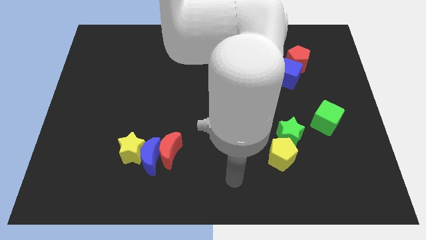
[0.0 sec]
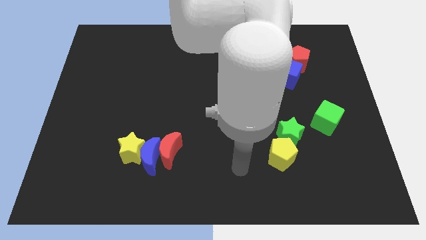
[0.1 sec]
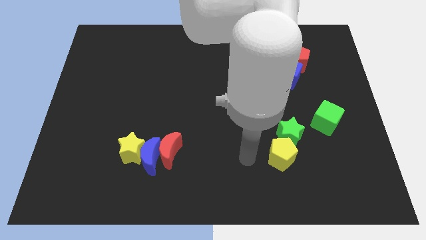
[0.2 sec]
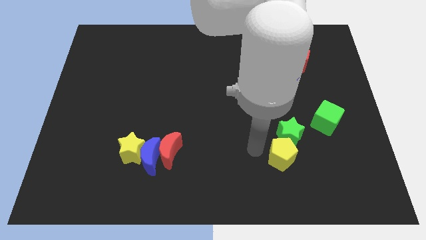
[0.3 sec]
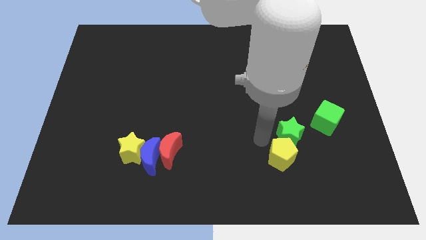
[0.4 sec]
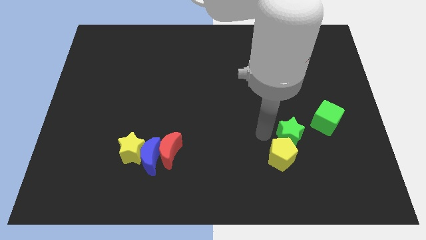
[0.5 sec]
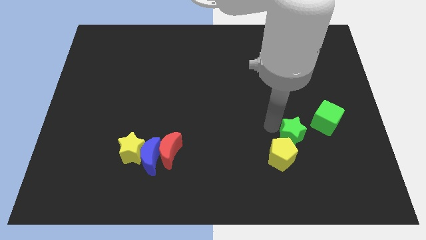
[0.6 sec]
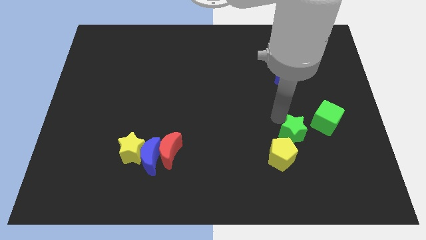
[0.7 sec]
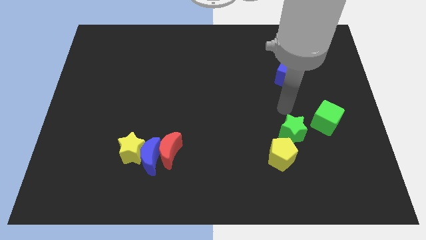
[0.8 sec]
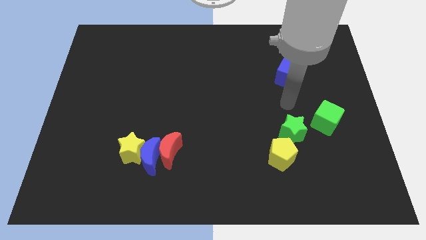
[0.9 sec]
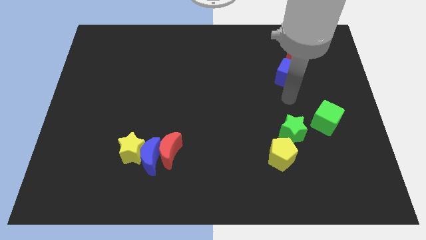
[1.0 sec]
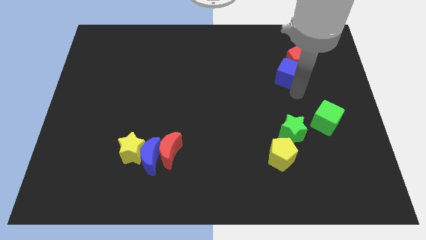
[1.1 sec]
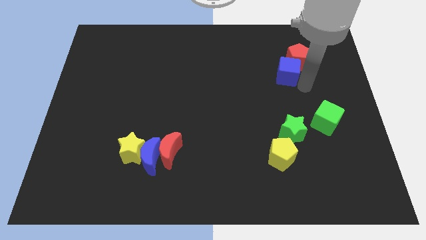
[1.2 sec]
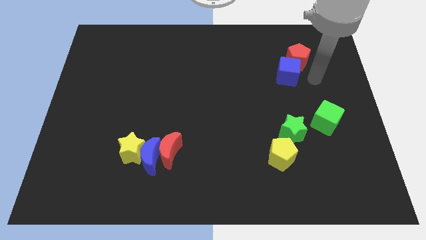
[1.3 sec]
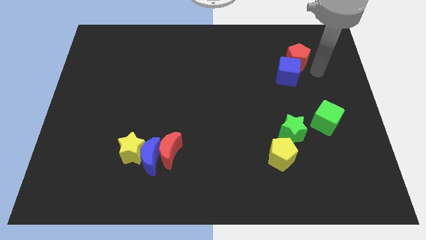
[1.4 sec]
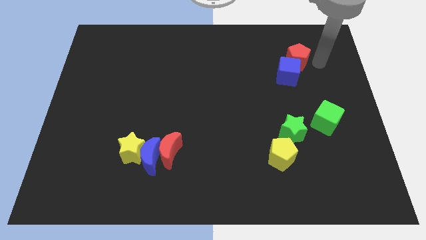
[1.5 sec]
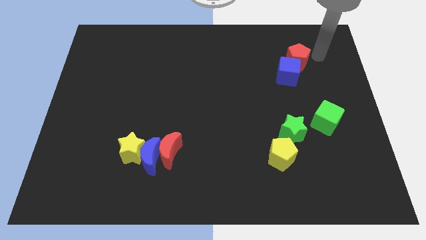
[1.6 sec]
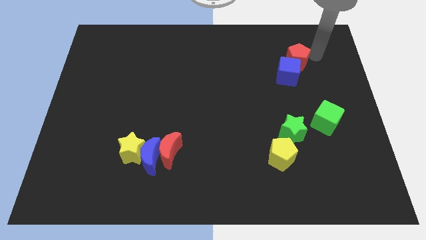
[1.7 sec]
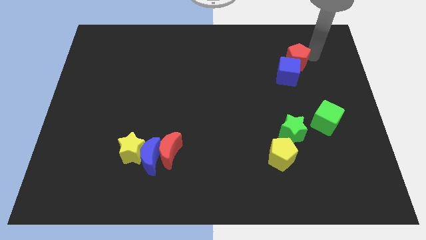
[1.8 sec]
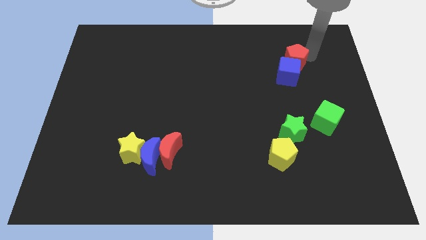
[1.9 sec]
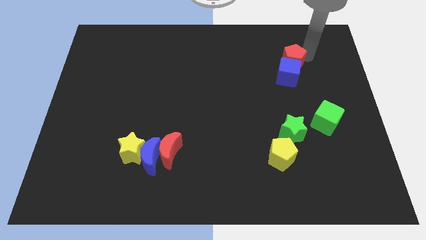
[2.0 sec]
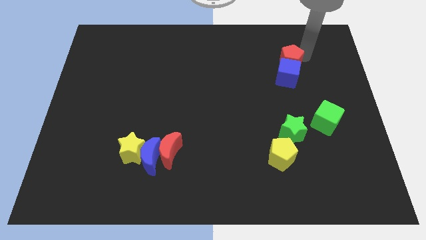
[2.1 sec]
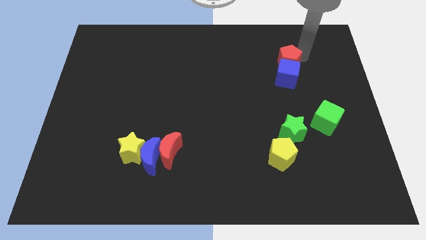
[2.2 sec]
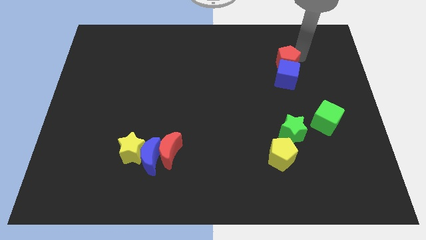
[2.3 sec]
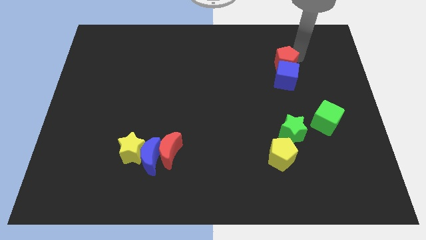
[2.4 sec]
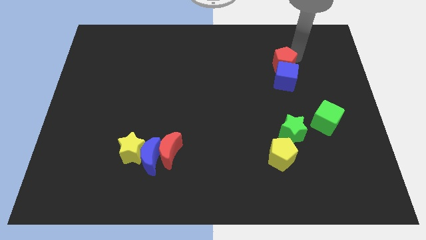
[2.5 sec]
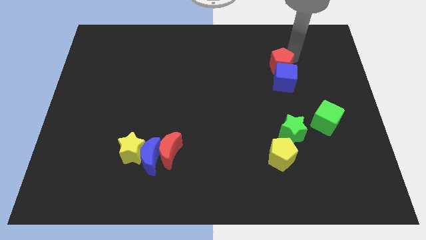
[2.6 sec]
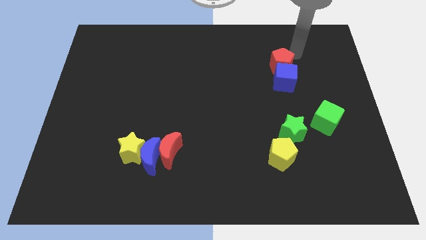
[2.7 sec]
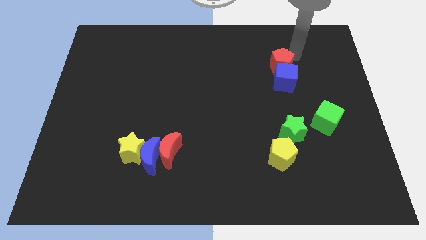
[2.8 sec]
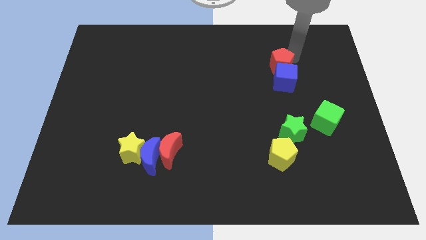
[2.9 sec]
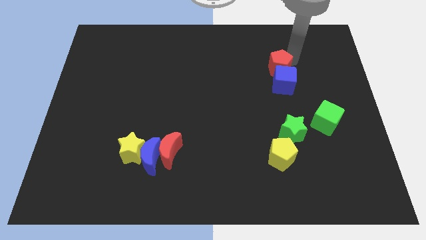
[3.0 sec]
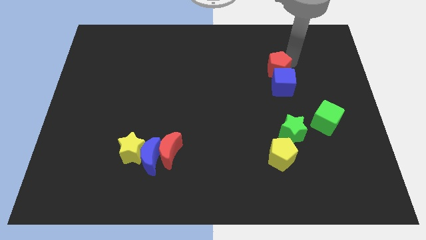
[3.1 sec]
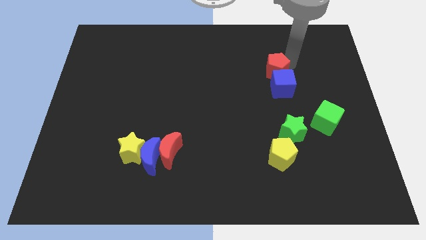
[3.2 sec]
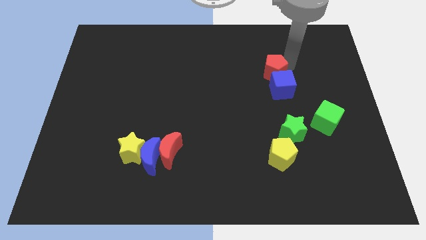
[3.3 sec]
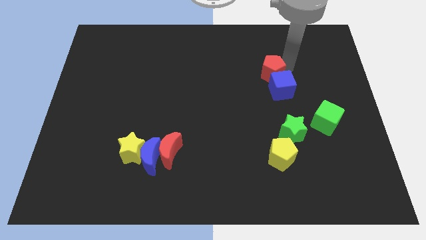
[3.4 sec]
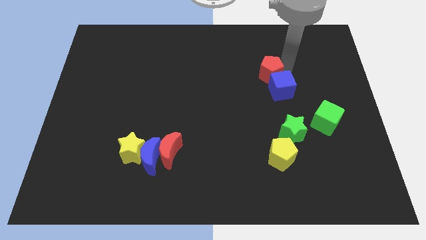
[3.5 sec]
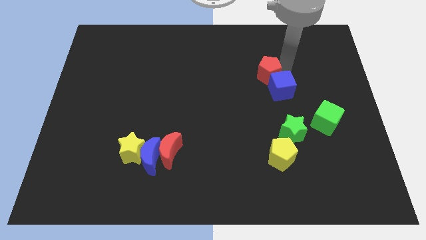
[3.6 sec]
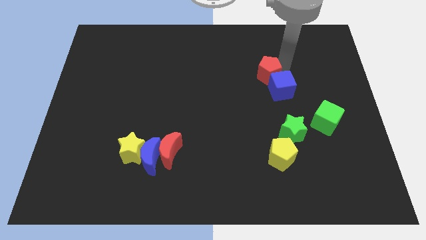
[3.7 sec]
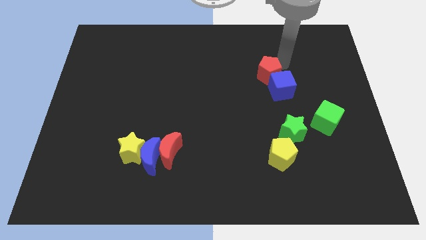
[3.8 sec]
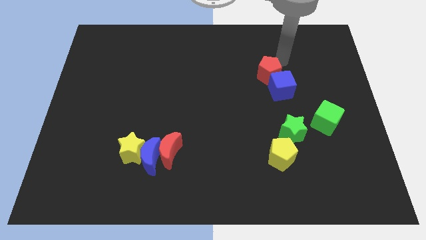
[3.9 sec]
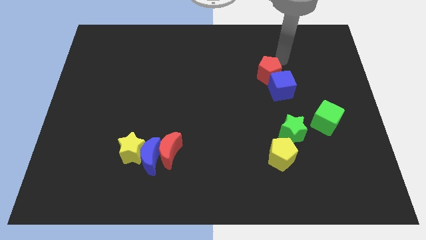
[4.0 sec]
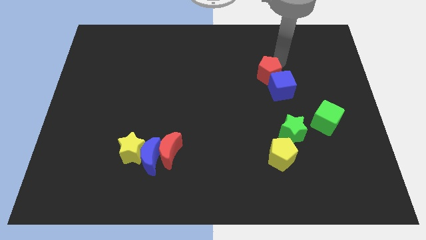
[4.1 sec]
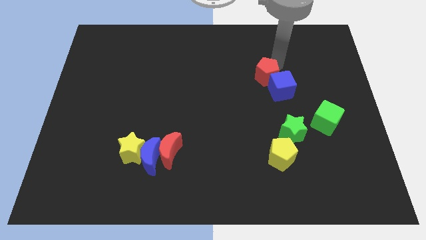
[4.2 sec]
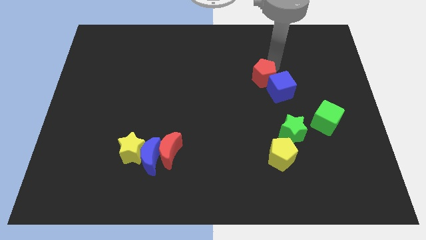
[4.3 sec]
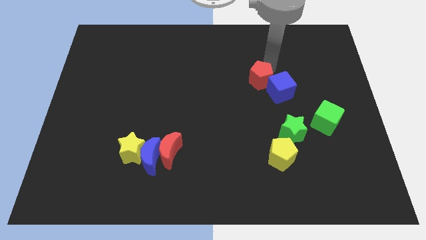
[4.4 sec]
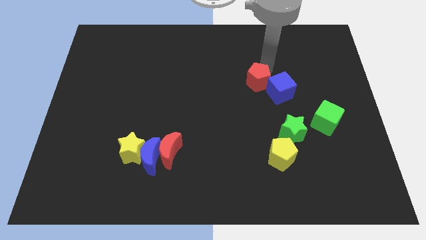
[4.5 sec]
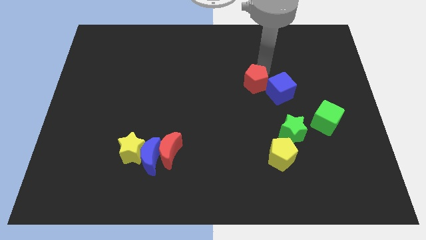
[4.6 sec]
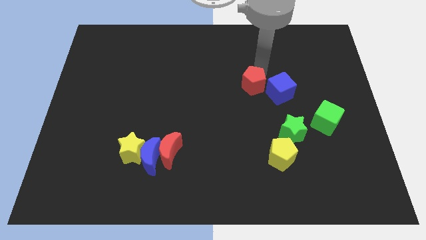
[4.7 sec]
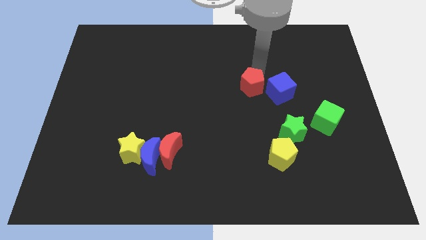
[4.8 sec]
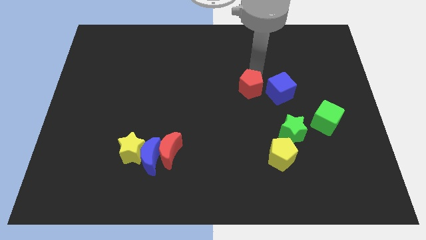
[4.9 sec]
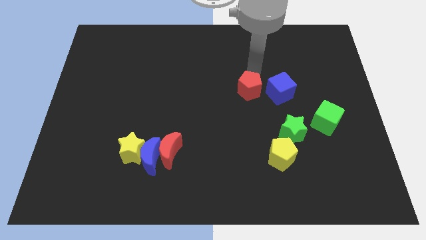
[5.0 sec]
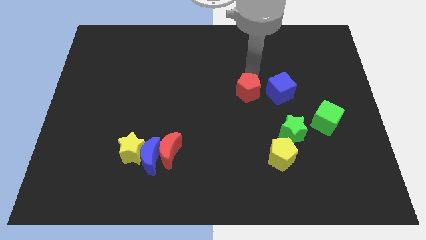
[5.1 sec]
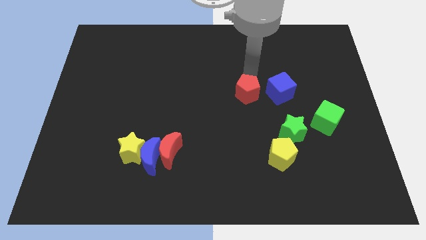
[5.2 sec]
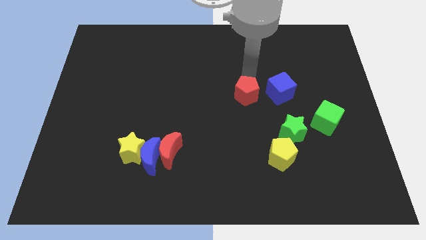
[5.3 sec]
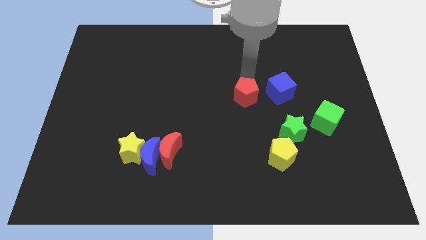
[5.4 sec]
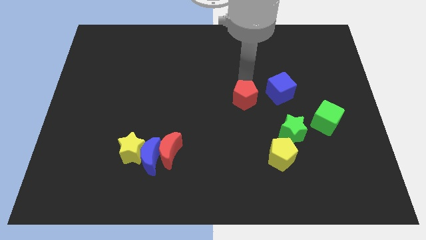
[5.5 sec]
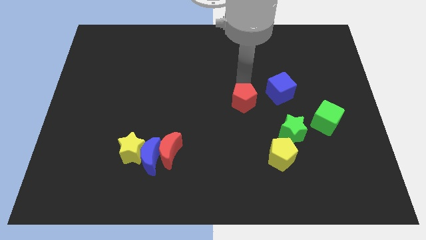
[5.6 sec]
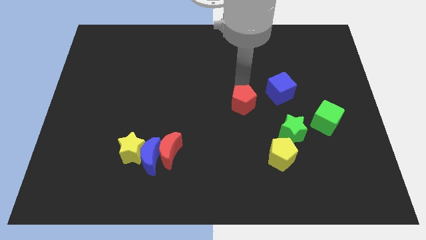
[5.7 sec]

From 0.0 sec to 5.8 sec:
push the red pentagon downwards and then to the left

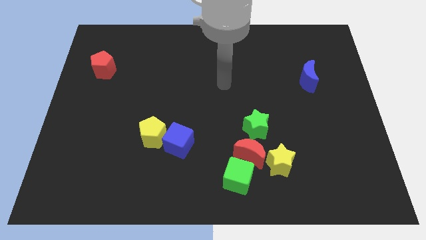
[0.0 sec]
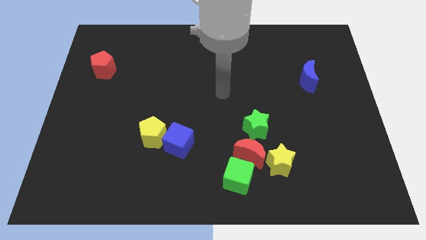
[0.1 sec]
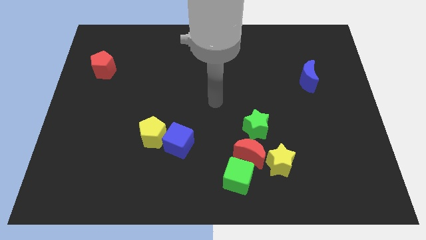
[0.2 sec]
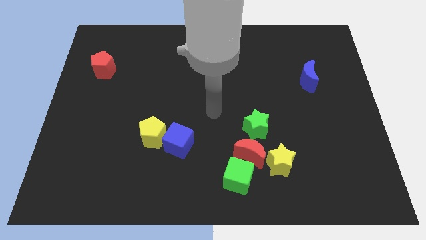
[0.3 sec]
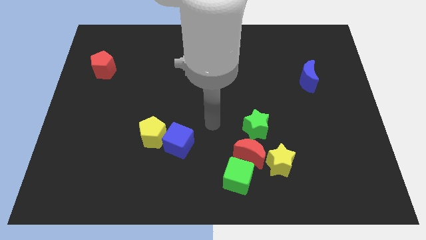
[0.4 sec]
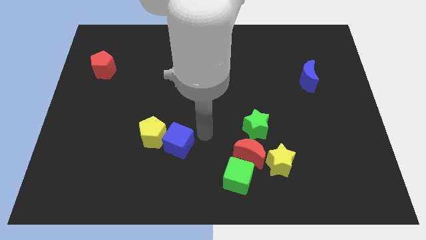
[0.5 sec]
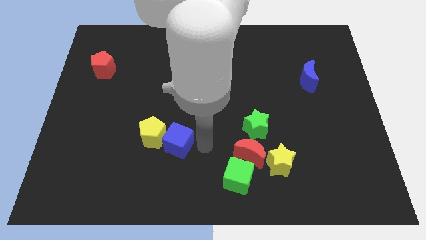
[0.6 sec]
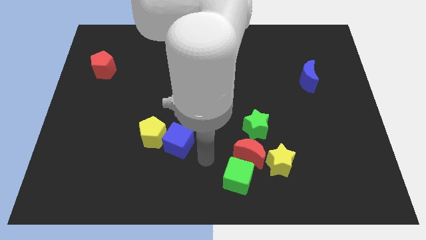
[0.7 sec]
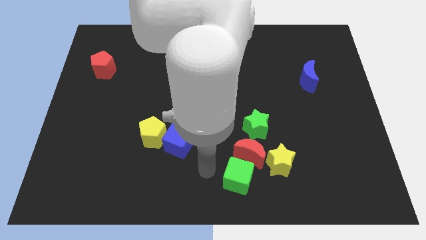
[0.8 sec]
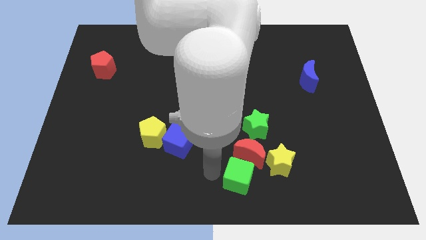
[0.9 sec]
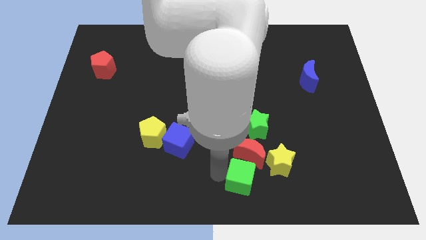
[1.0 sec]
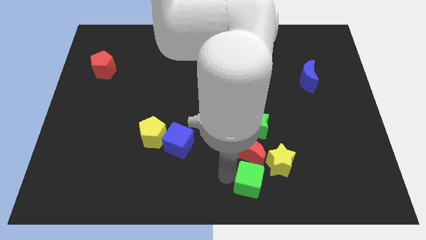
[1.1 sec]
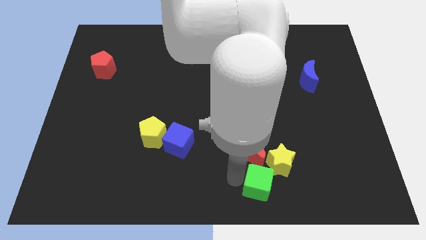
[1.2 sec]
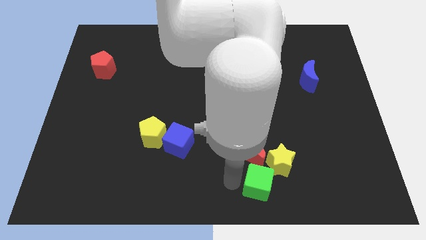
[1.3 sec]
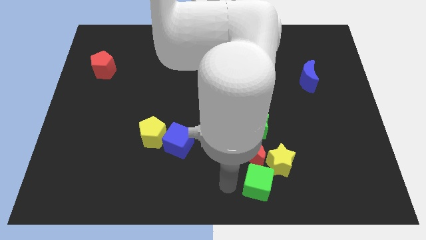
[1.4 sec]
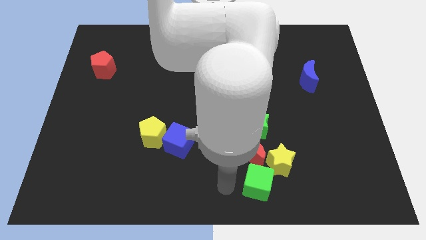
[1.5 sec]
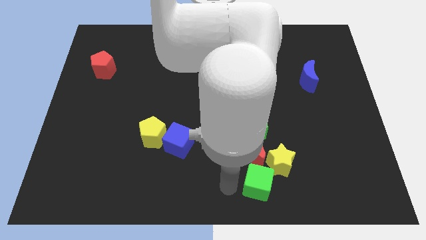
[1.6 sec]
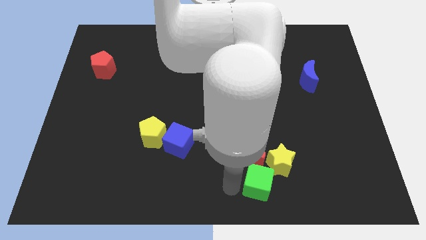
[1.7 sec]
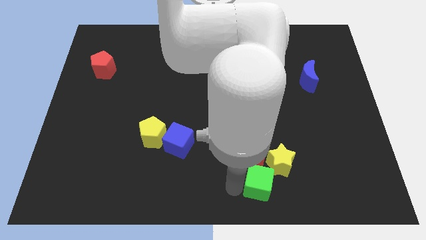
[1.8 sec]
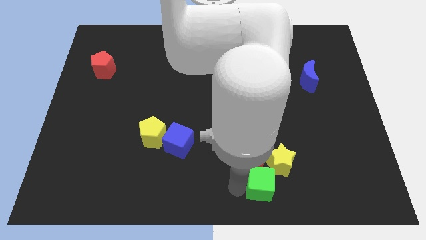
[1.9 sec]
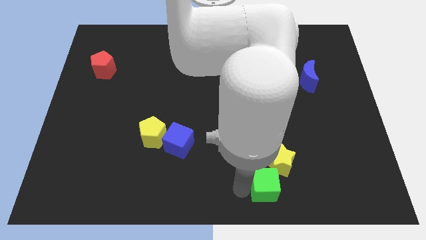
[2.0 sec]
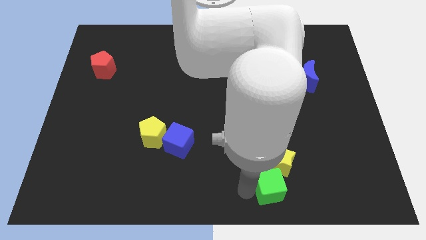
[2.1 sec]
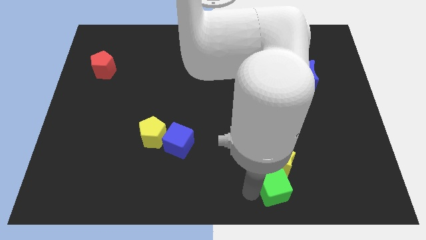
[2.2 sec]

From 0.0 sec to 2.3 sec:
slightly slide the green cube right
